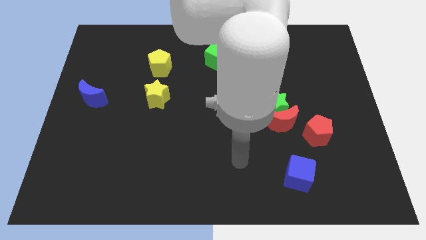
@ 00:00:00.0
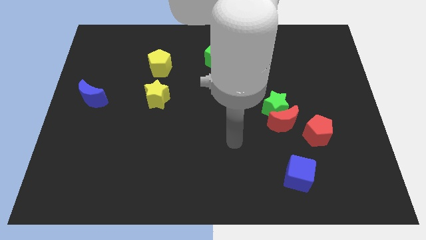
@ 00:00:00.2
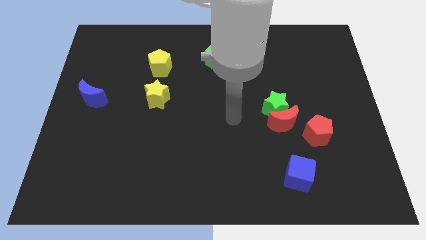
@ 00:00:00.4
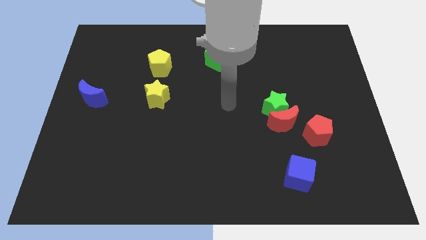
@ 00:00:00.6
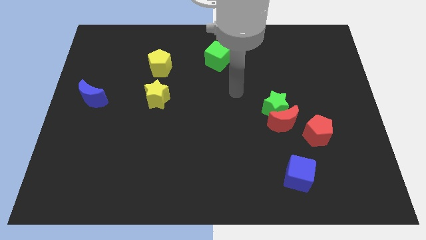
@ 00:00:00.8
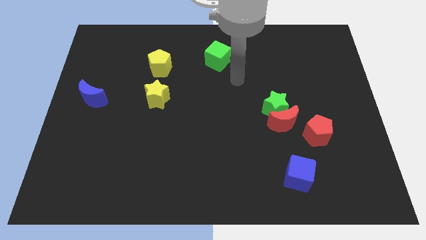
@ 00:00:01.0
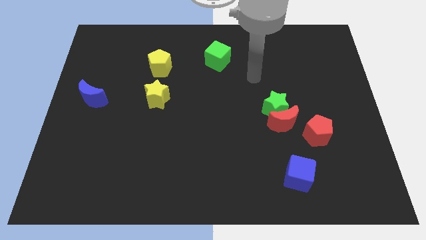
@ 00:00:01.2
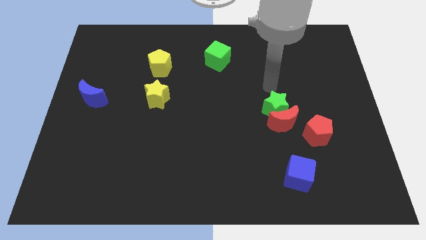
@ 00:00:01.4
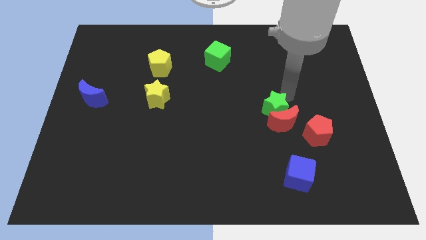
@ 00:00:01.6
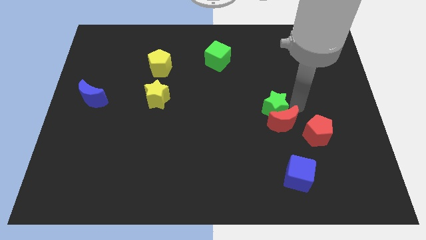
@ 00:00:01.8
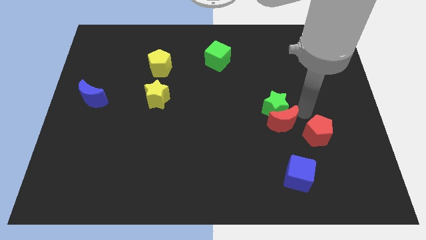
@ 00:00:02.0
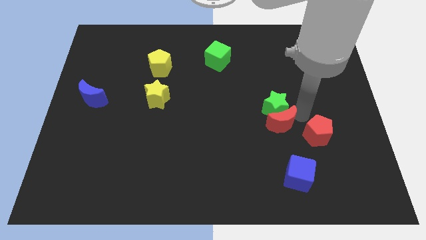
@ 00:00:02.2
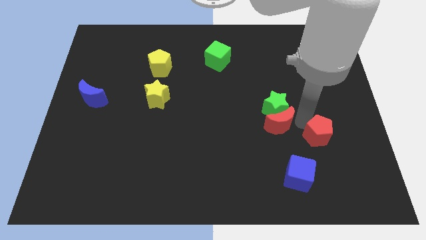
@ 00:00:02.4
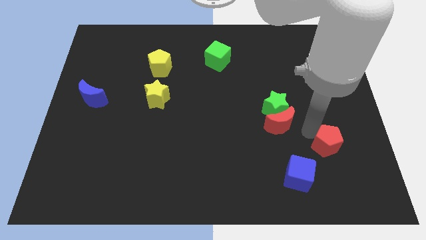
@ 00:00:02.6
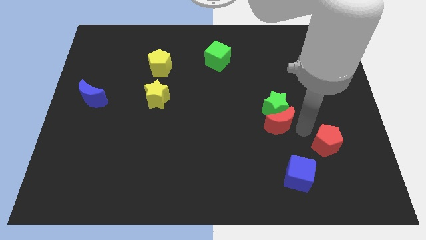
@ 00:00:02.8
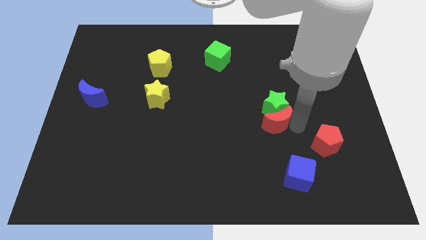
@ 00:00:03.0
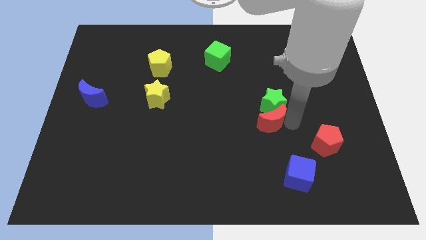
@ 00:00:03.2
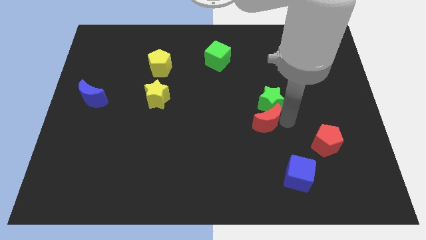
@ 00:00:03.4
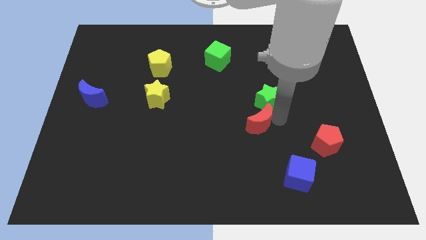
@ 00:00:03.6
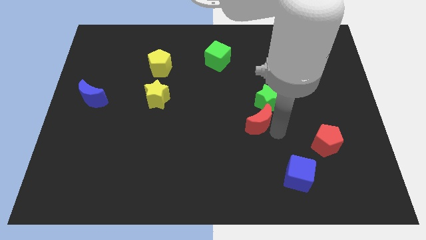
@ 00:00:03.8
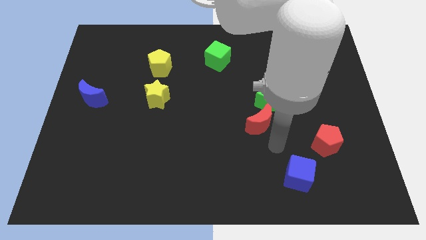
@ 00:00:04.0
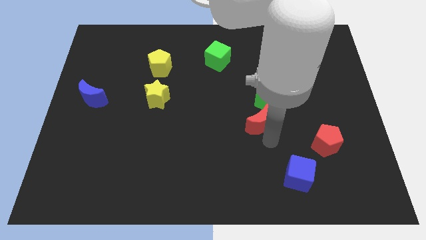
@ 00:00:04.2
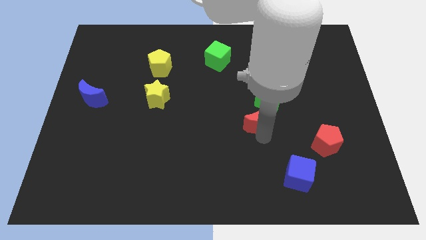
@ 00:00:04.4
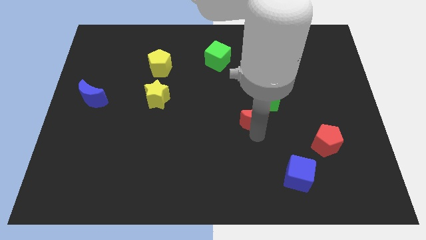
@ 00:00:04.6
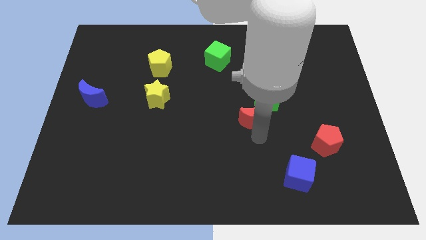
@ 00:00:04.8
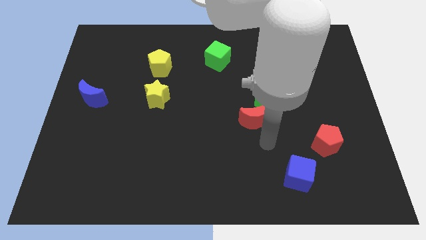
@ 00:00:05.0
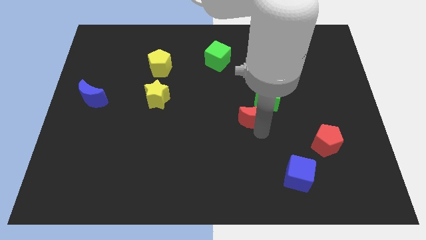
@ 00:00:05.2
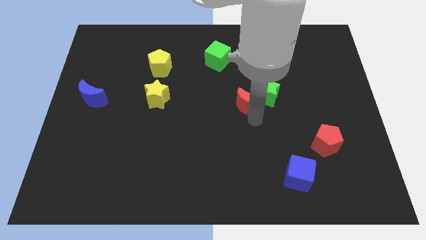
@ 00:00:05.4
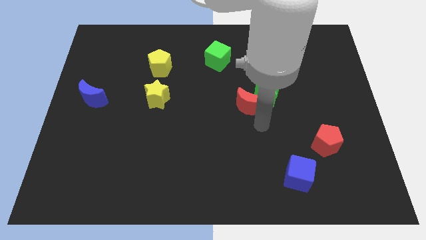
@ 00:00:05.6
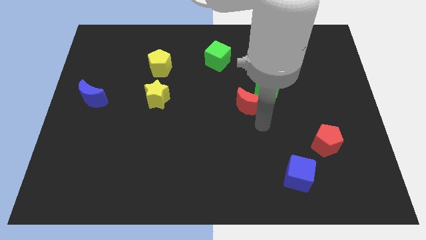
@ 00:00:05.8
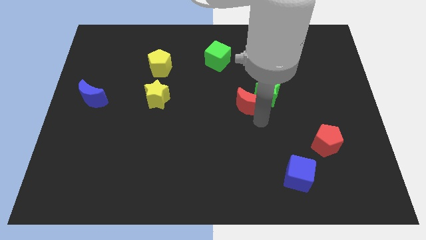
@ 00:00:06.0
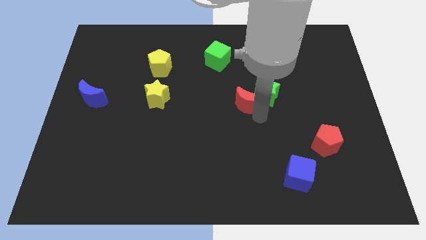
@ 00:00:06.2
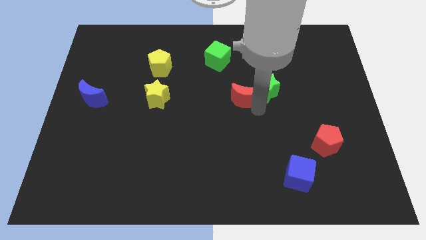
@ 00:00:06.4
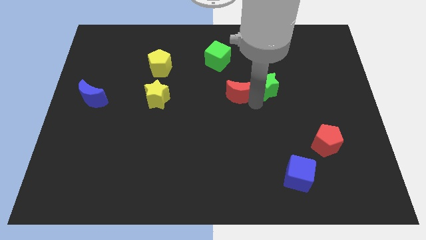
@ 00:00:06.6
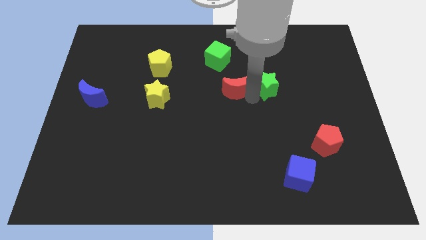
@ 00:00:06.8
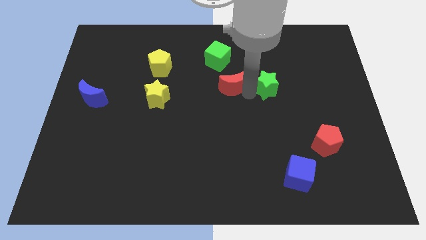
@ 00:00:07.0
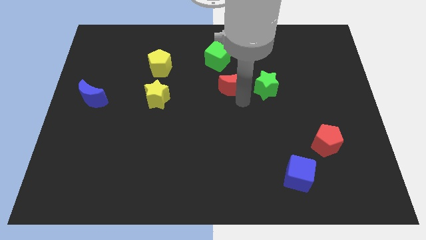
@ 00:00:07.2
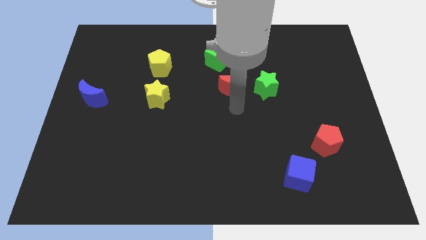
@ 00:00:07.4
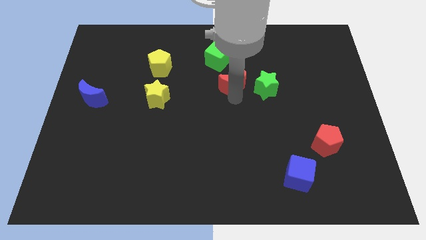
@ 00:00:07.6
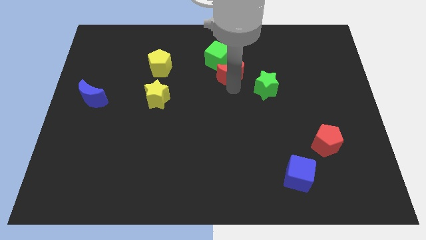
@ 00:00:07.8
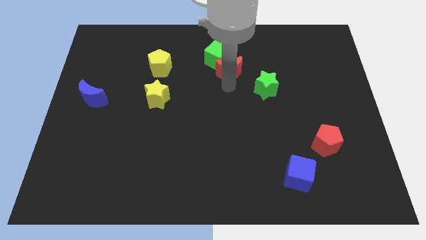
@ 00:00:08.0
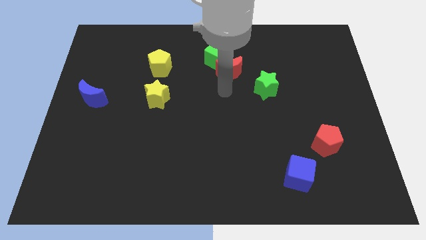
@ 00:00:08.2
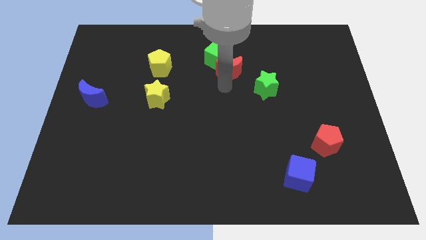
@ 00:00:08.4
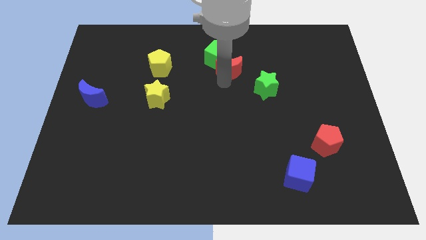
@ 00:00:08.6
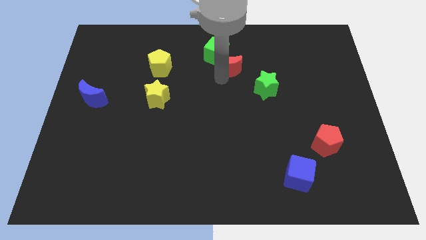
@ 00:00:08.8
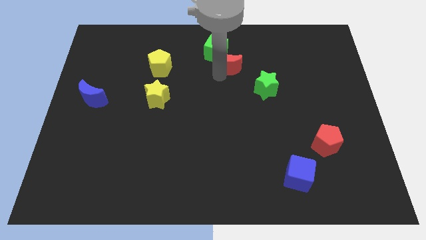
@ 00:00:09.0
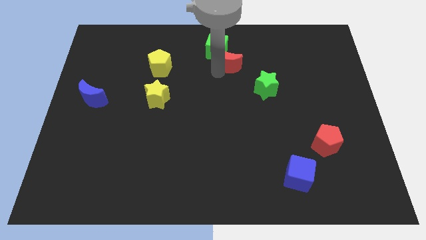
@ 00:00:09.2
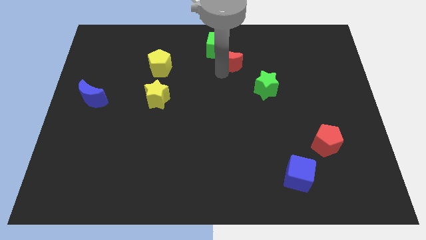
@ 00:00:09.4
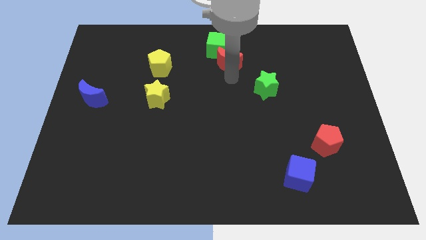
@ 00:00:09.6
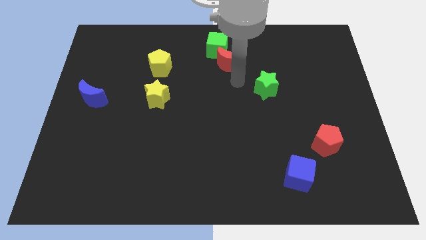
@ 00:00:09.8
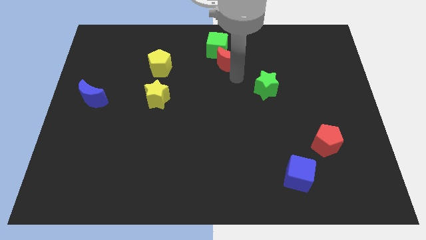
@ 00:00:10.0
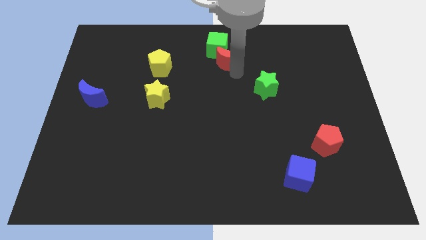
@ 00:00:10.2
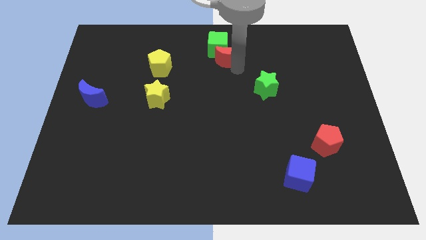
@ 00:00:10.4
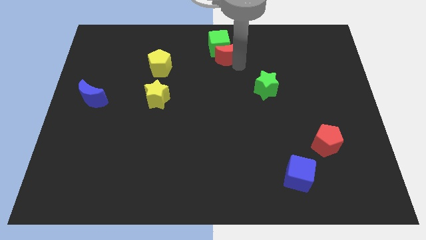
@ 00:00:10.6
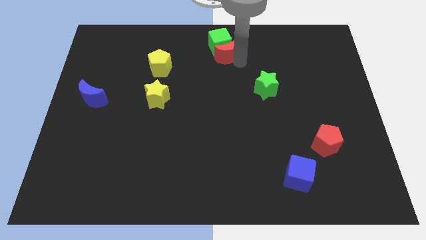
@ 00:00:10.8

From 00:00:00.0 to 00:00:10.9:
move the red moon to the top side

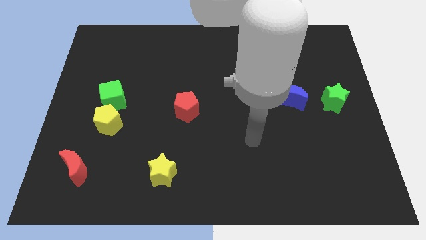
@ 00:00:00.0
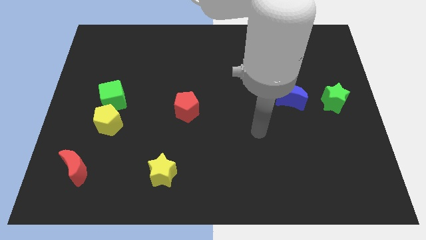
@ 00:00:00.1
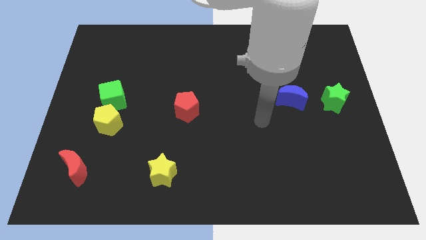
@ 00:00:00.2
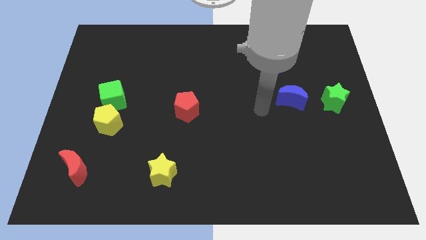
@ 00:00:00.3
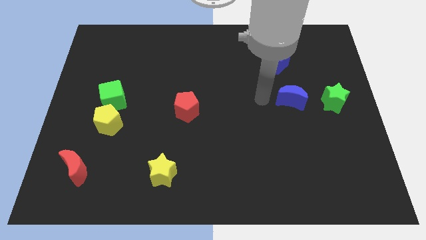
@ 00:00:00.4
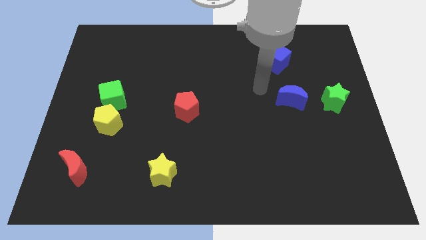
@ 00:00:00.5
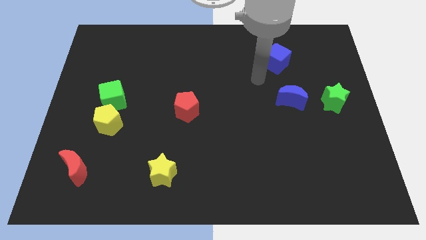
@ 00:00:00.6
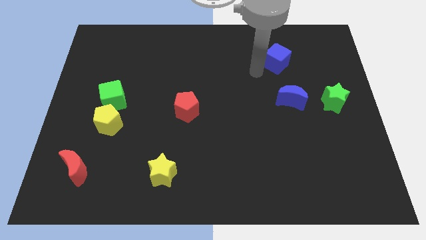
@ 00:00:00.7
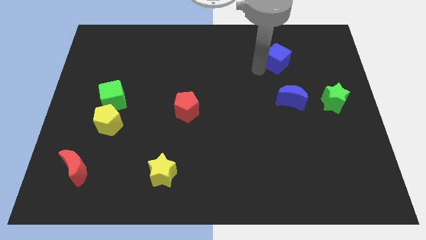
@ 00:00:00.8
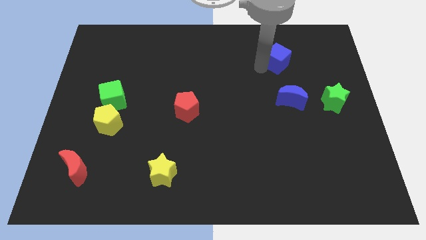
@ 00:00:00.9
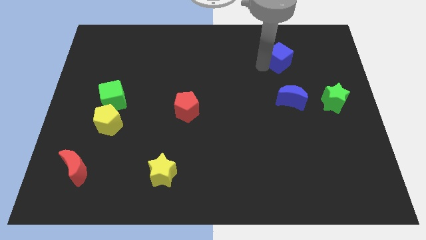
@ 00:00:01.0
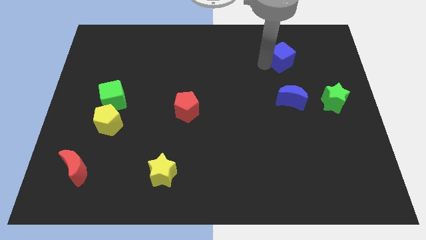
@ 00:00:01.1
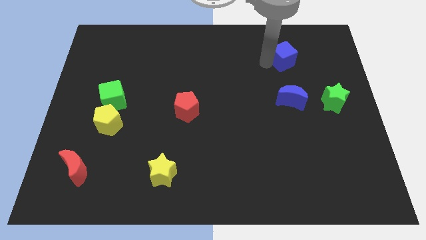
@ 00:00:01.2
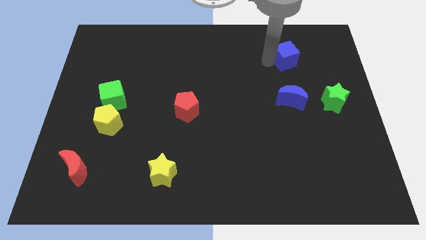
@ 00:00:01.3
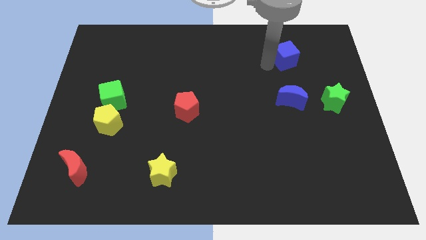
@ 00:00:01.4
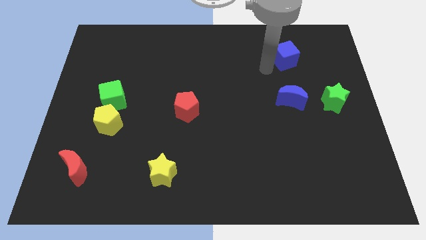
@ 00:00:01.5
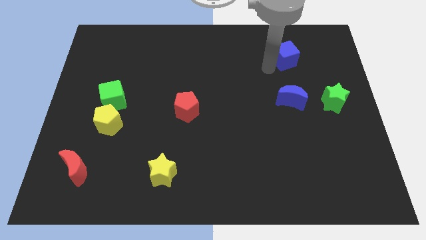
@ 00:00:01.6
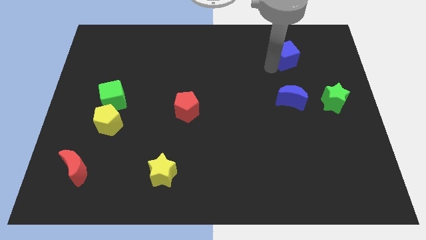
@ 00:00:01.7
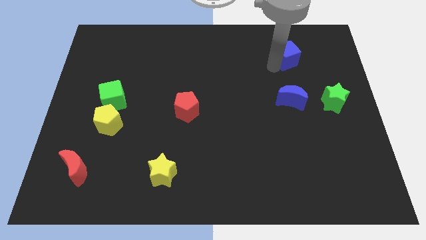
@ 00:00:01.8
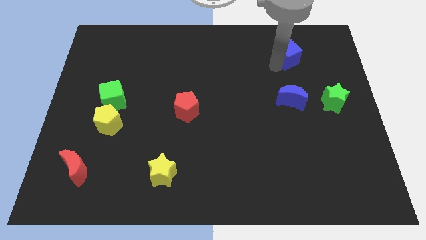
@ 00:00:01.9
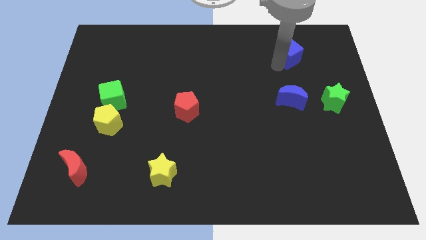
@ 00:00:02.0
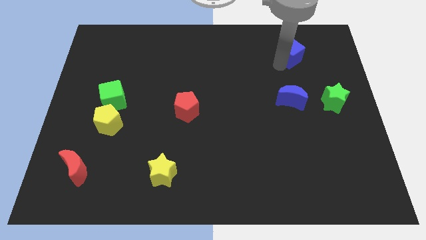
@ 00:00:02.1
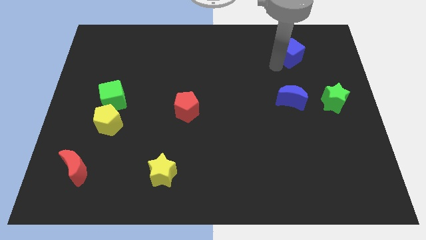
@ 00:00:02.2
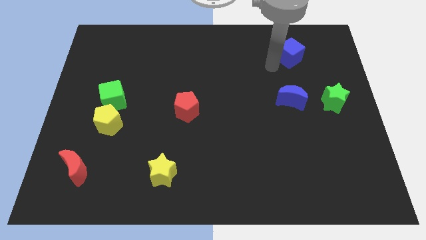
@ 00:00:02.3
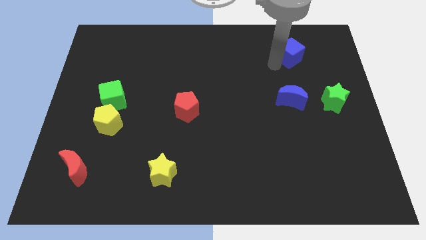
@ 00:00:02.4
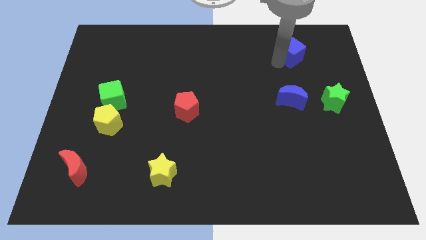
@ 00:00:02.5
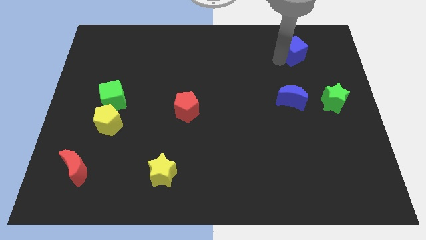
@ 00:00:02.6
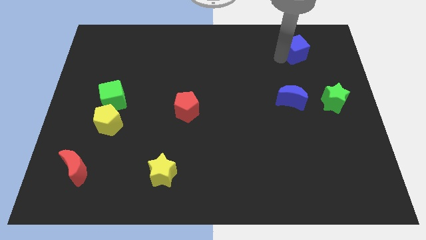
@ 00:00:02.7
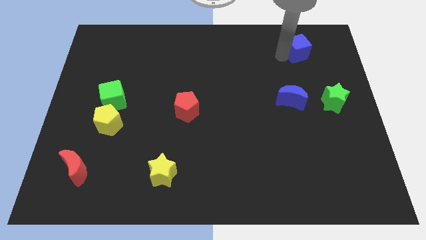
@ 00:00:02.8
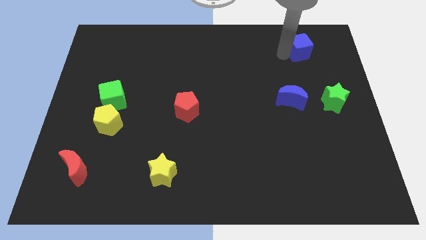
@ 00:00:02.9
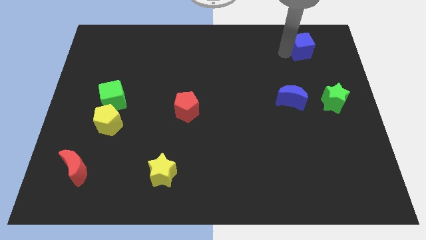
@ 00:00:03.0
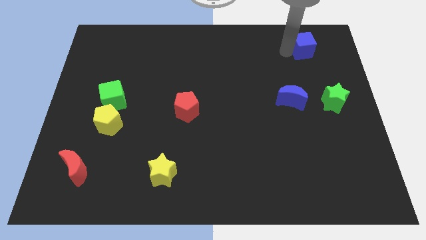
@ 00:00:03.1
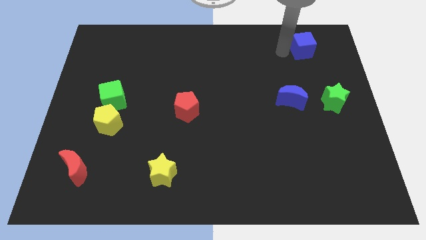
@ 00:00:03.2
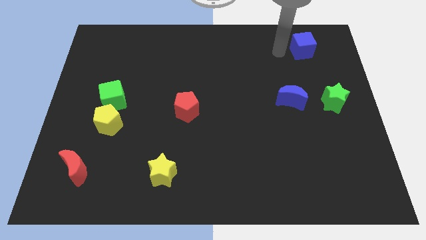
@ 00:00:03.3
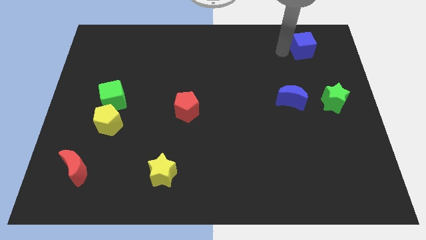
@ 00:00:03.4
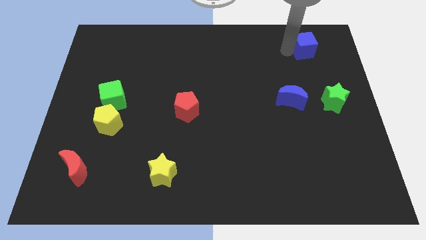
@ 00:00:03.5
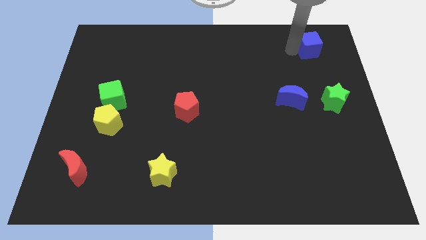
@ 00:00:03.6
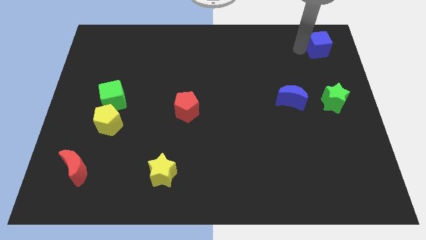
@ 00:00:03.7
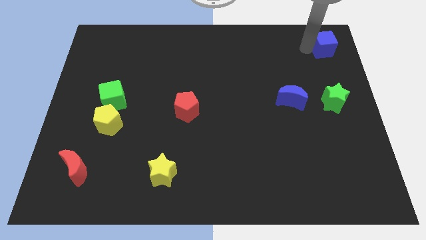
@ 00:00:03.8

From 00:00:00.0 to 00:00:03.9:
slide the blue cube to the top right of the board
